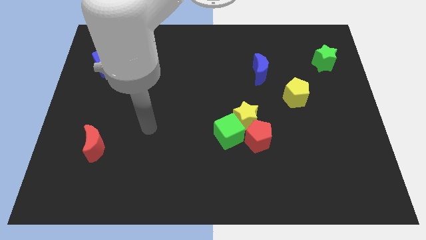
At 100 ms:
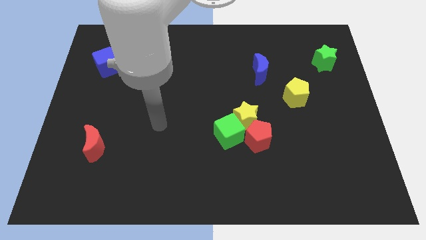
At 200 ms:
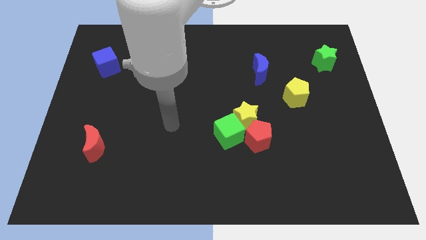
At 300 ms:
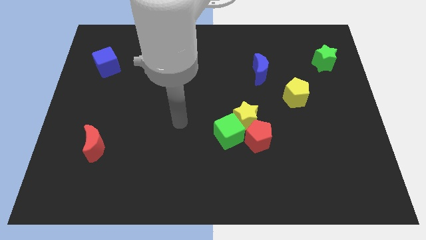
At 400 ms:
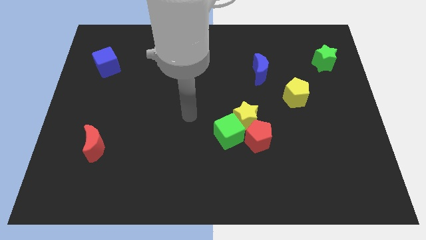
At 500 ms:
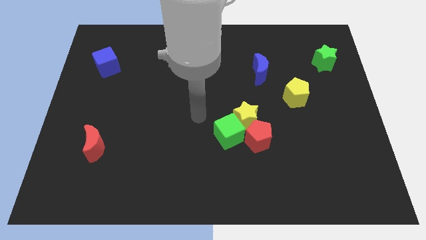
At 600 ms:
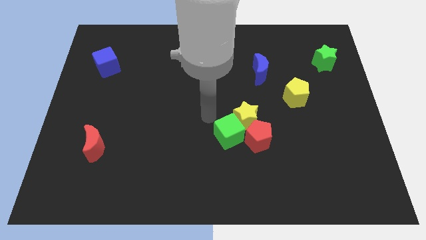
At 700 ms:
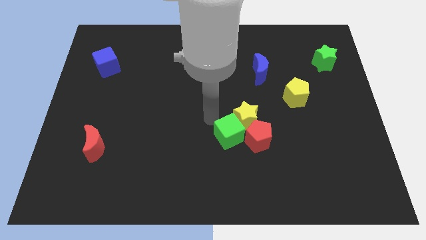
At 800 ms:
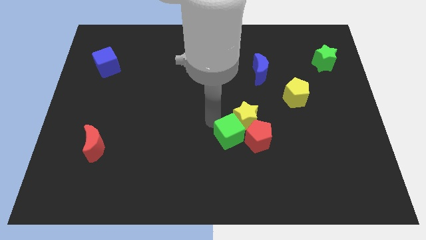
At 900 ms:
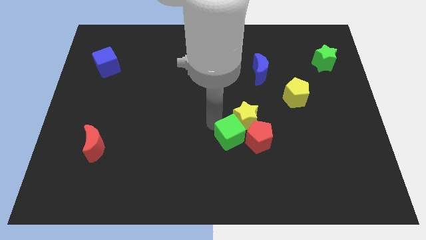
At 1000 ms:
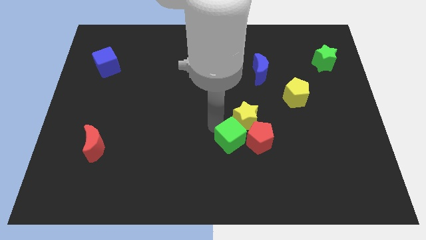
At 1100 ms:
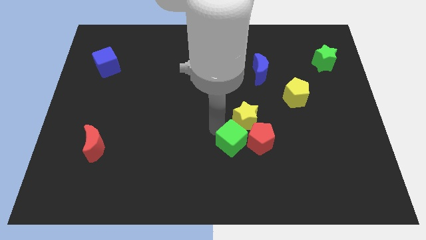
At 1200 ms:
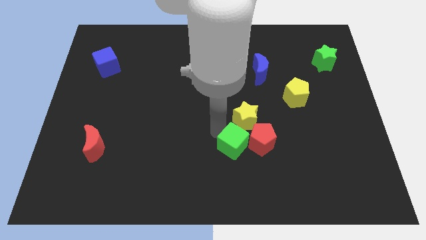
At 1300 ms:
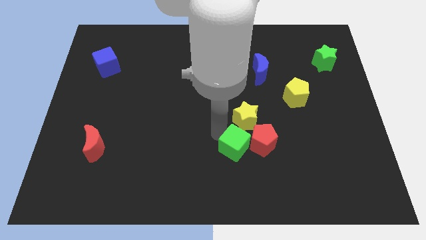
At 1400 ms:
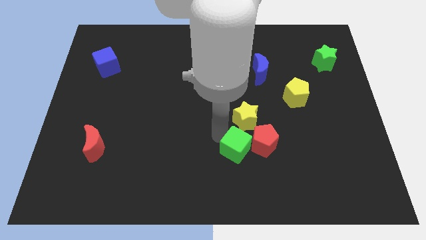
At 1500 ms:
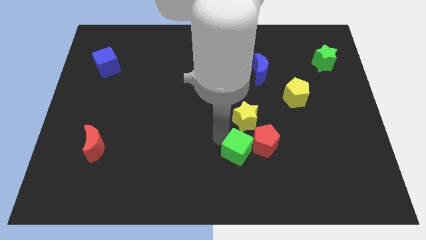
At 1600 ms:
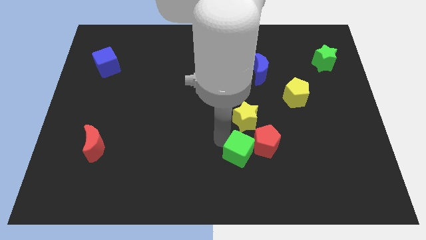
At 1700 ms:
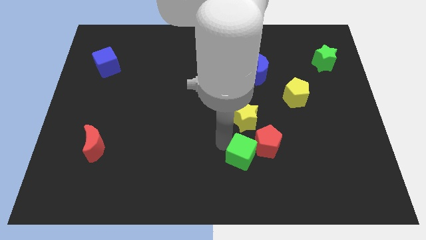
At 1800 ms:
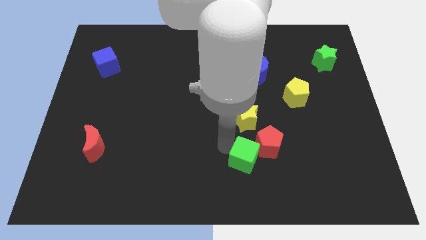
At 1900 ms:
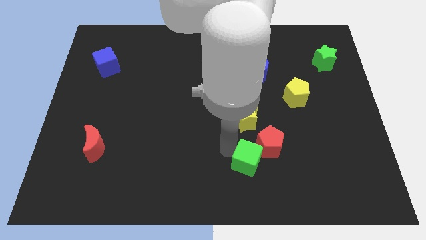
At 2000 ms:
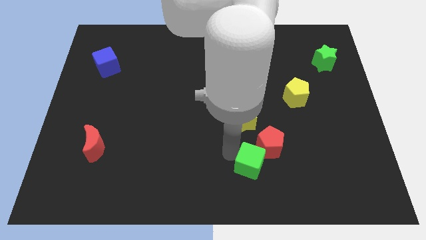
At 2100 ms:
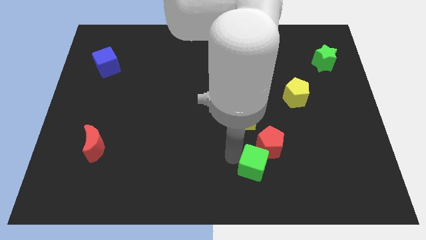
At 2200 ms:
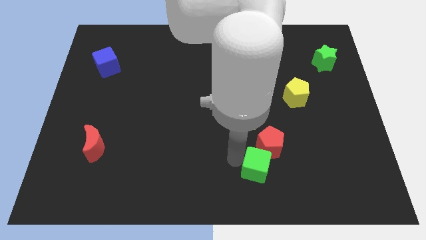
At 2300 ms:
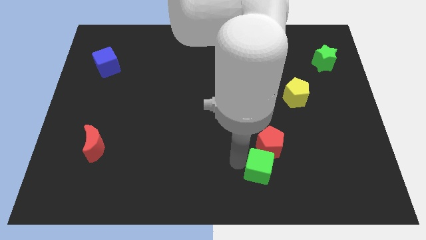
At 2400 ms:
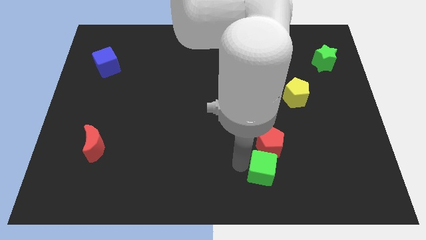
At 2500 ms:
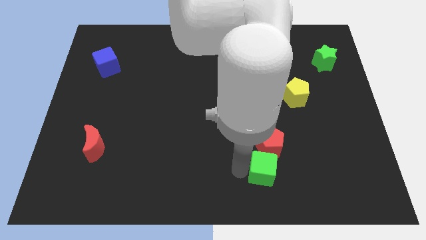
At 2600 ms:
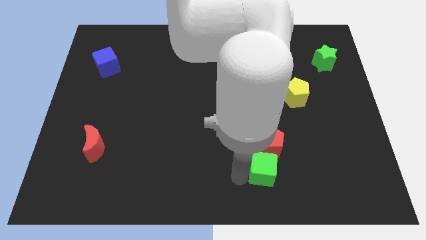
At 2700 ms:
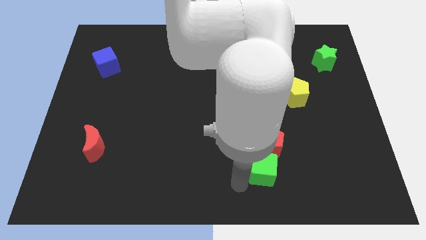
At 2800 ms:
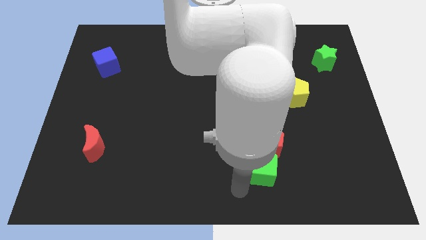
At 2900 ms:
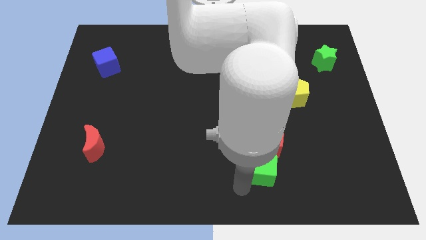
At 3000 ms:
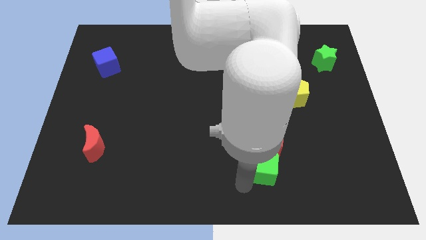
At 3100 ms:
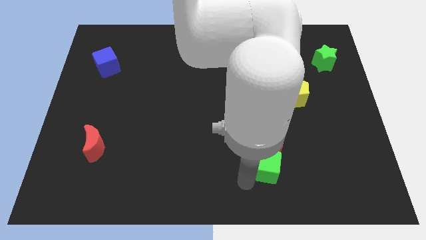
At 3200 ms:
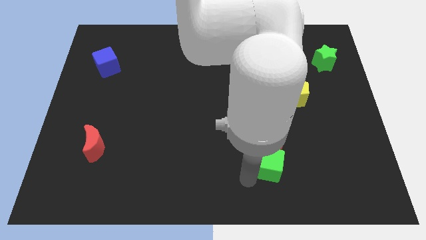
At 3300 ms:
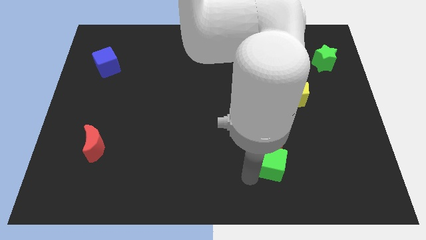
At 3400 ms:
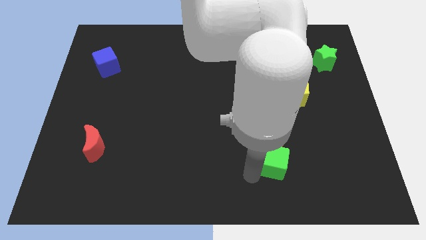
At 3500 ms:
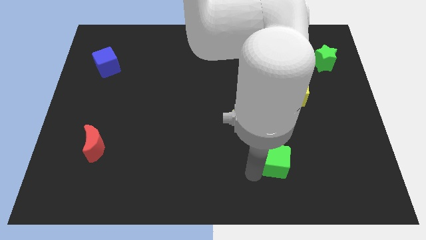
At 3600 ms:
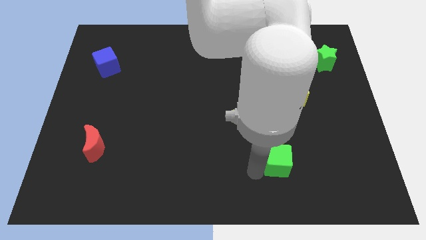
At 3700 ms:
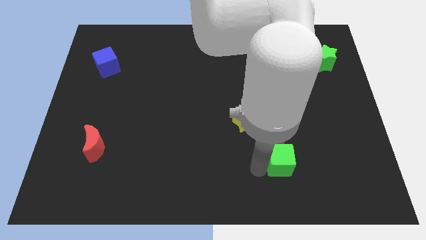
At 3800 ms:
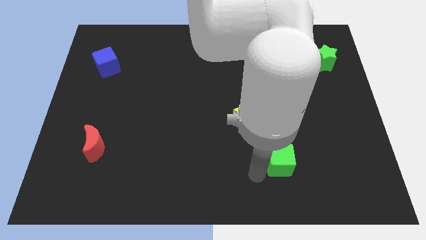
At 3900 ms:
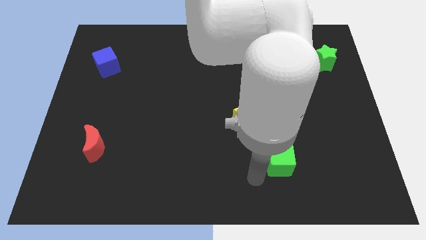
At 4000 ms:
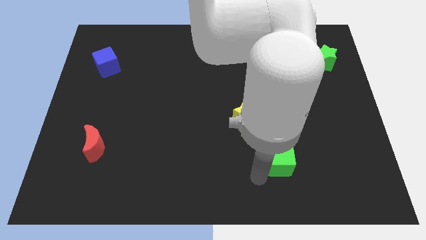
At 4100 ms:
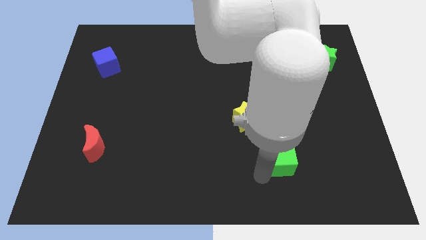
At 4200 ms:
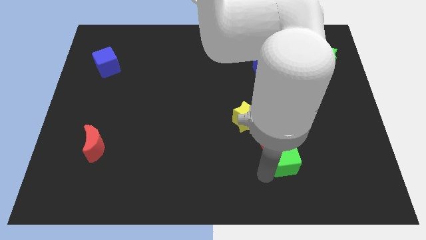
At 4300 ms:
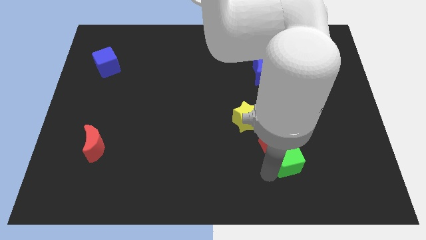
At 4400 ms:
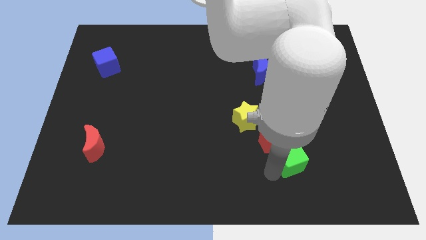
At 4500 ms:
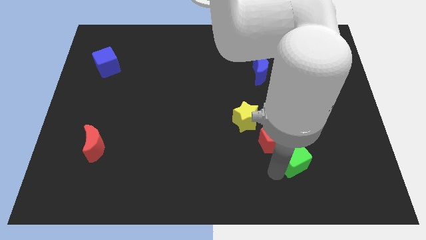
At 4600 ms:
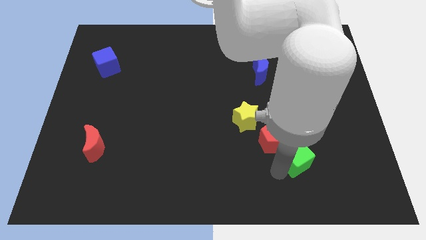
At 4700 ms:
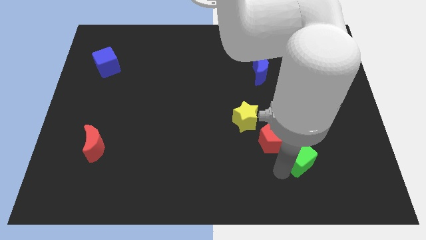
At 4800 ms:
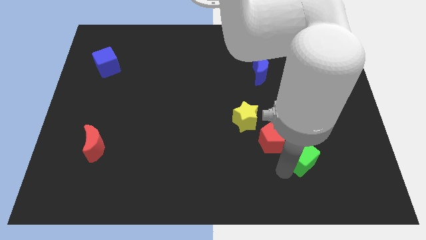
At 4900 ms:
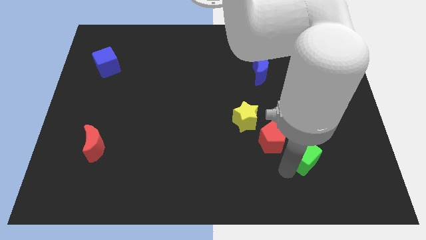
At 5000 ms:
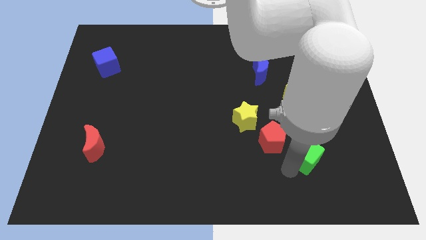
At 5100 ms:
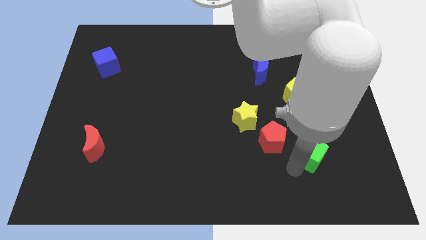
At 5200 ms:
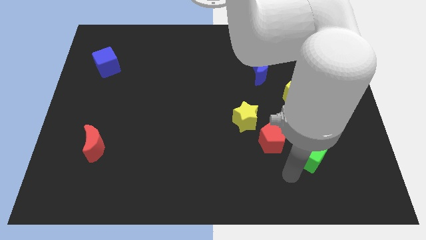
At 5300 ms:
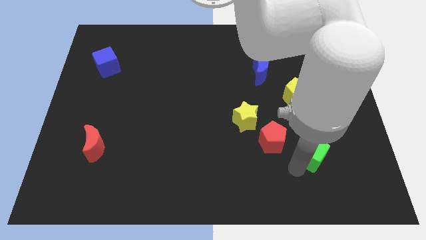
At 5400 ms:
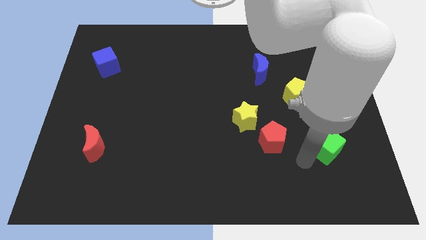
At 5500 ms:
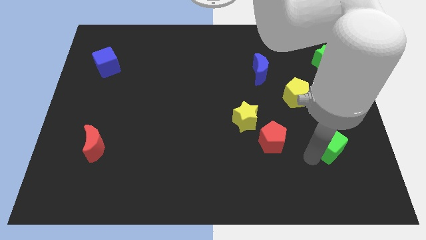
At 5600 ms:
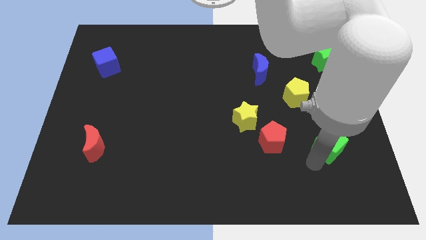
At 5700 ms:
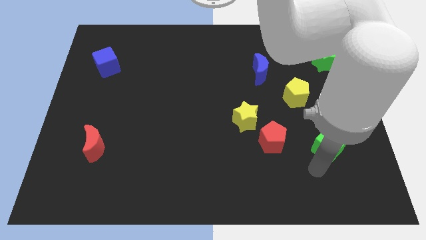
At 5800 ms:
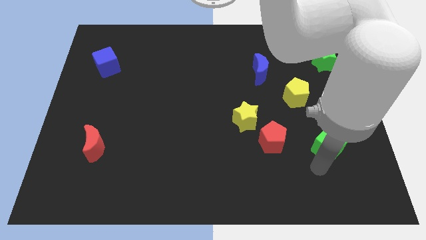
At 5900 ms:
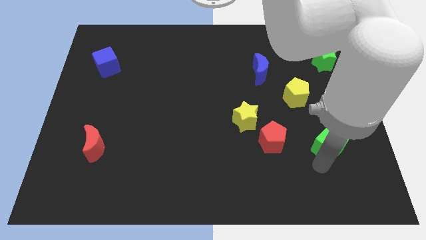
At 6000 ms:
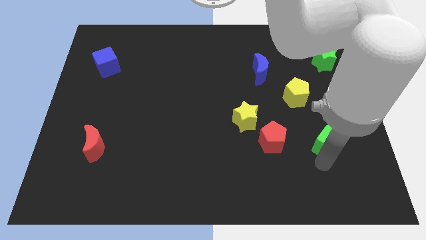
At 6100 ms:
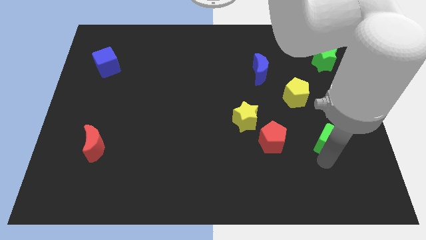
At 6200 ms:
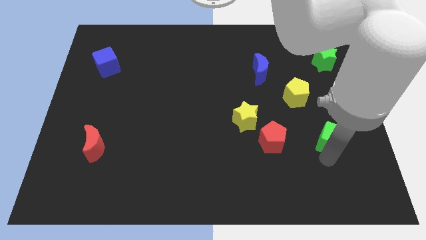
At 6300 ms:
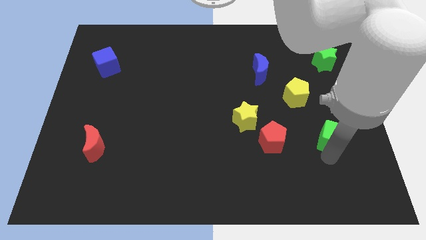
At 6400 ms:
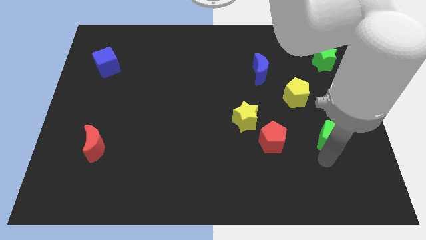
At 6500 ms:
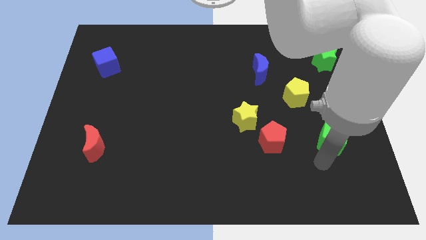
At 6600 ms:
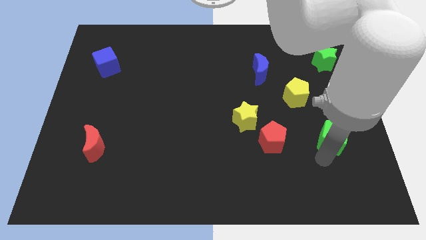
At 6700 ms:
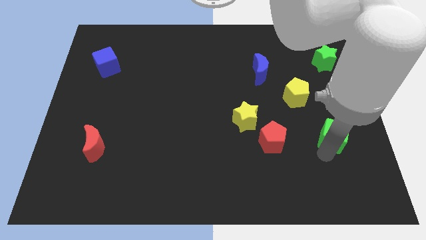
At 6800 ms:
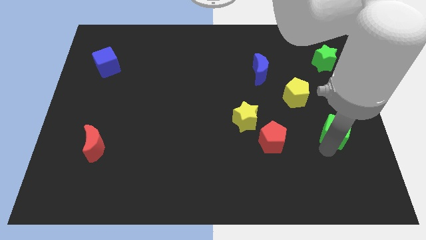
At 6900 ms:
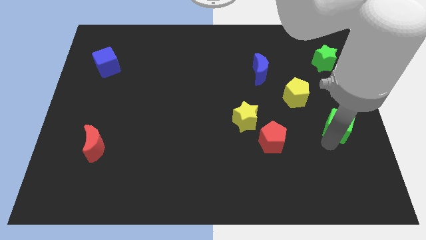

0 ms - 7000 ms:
put the green cube to the right side of the board

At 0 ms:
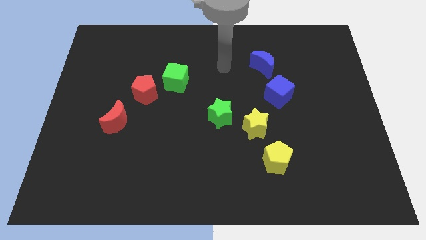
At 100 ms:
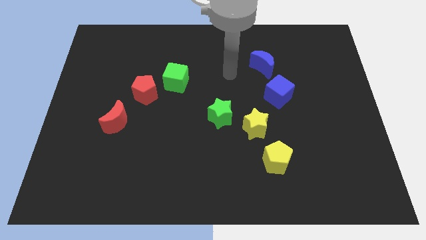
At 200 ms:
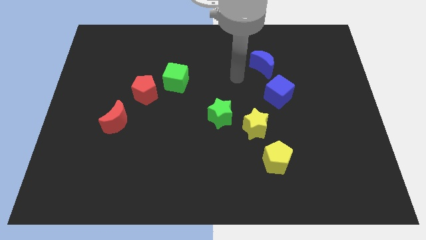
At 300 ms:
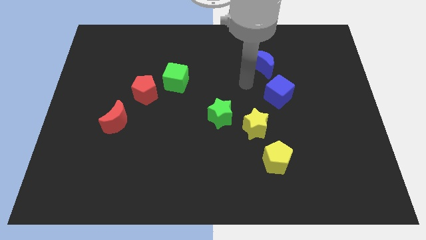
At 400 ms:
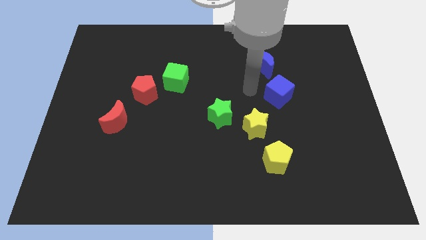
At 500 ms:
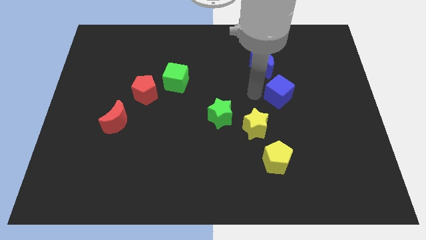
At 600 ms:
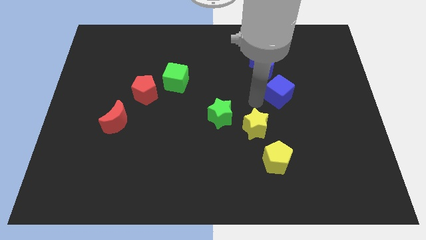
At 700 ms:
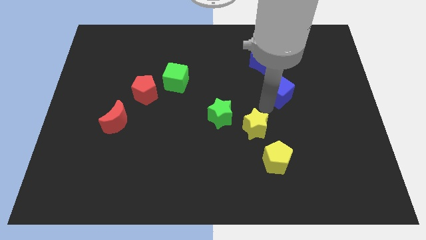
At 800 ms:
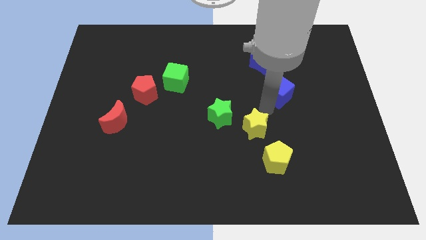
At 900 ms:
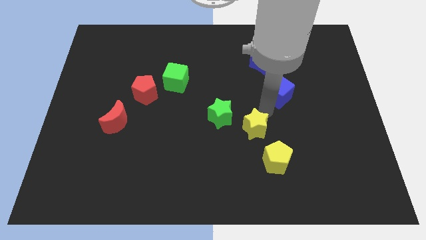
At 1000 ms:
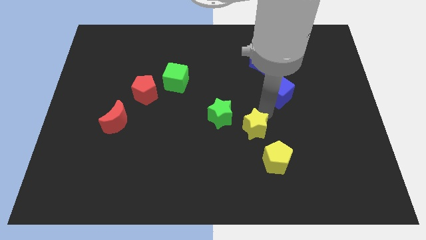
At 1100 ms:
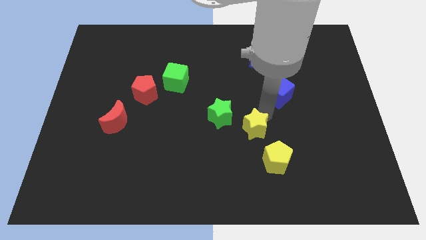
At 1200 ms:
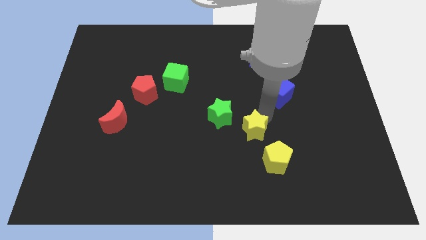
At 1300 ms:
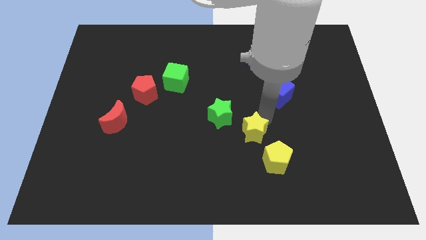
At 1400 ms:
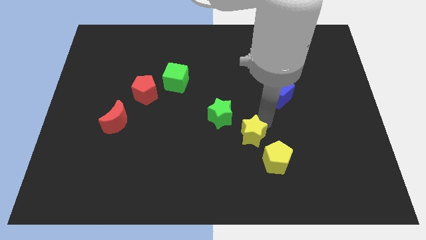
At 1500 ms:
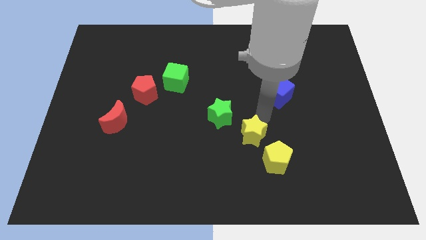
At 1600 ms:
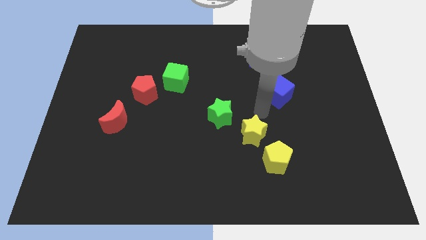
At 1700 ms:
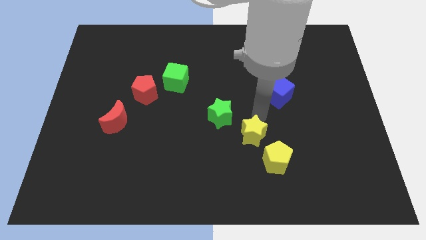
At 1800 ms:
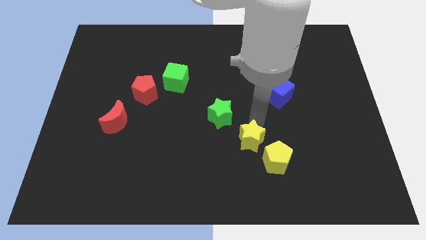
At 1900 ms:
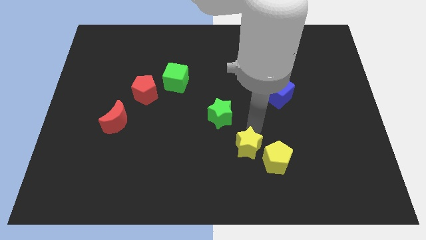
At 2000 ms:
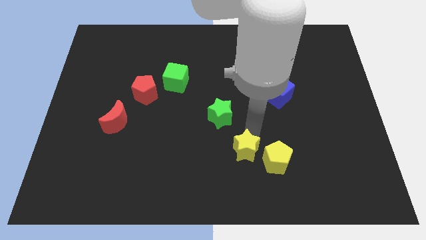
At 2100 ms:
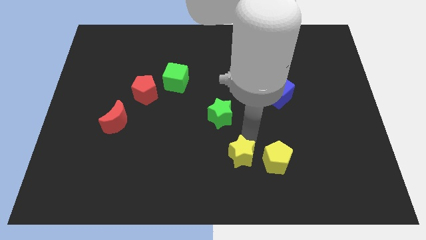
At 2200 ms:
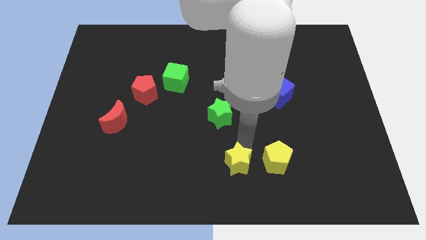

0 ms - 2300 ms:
put the yellow star to the bottom
